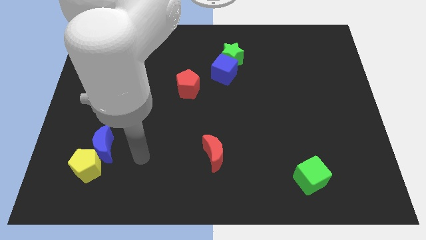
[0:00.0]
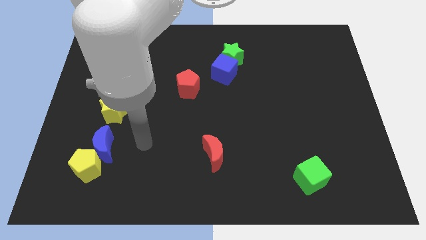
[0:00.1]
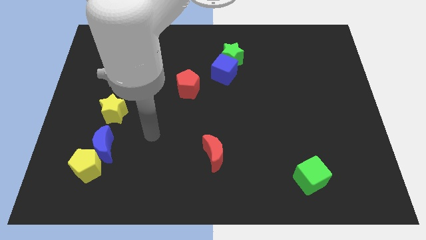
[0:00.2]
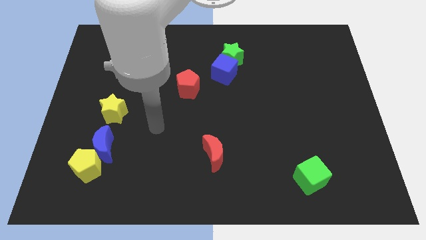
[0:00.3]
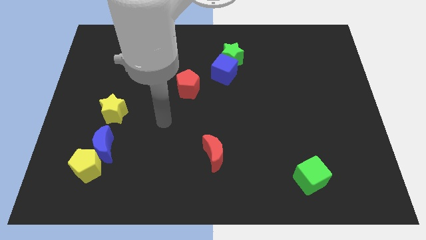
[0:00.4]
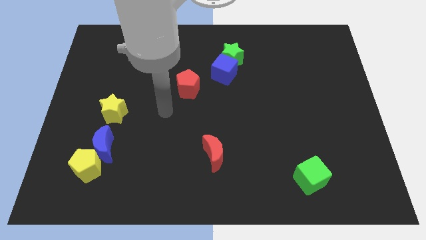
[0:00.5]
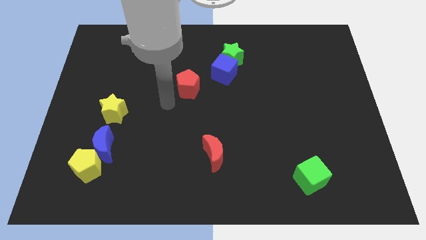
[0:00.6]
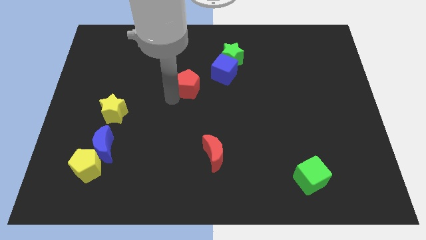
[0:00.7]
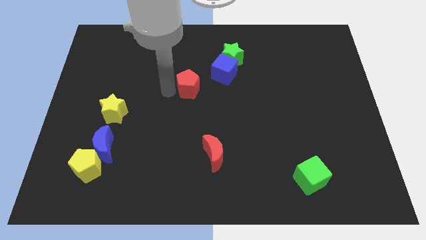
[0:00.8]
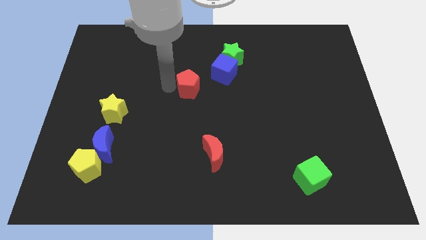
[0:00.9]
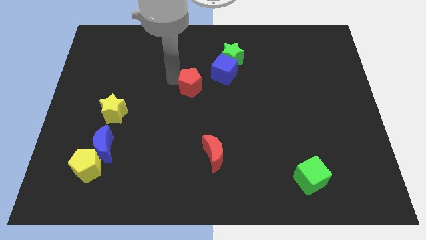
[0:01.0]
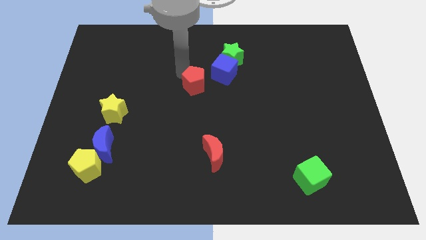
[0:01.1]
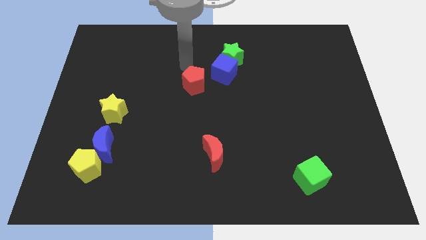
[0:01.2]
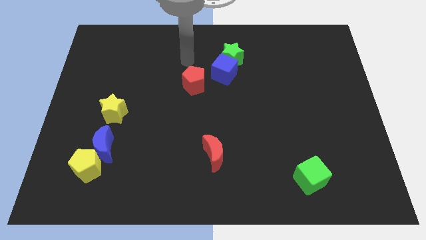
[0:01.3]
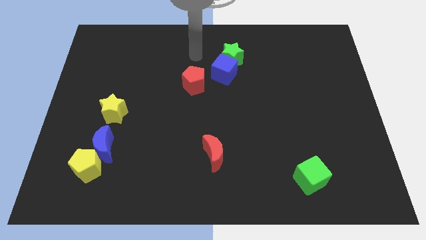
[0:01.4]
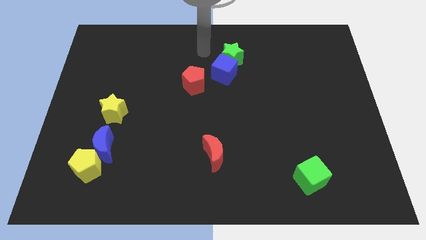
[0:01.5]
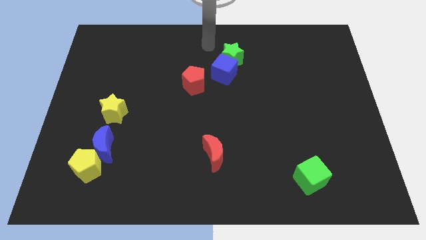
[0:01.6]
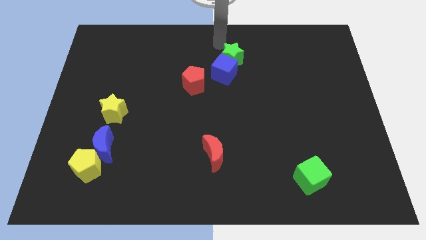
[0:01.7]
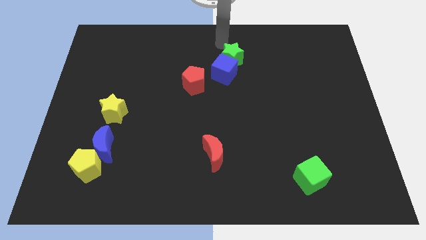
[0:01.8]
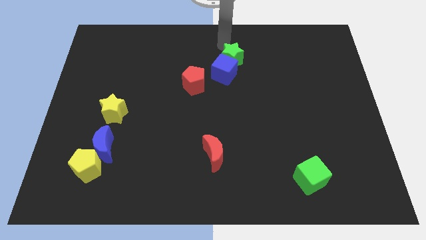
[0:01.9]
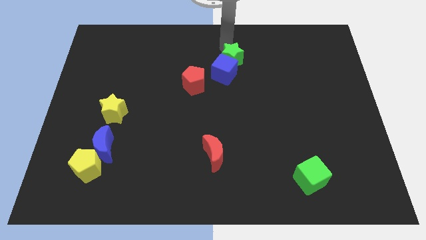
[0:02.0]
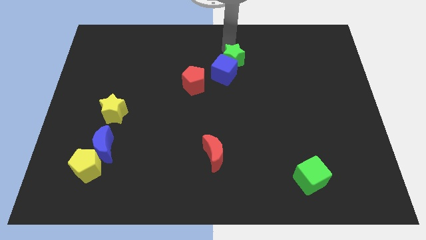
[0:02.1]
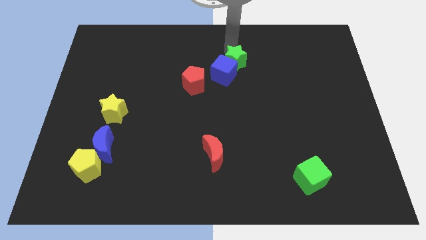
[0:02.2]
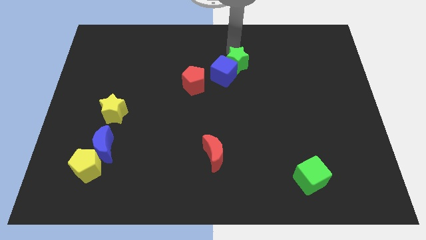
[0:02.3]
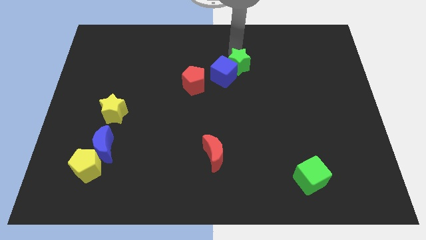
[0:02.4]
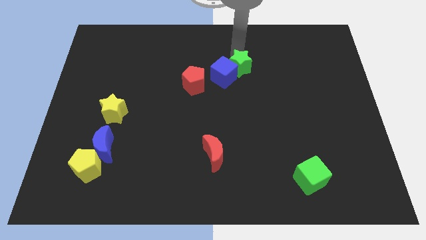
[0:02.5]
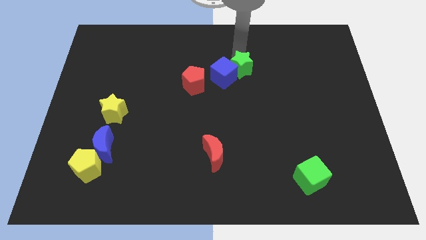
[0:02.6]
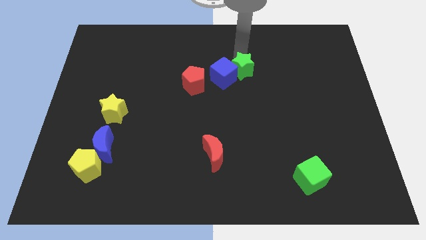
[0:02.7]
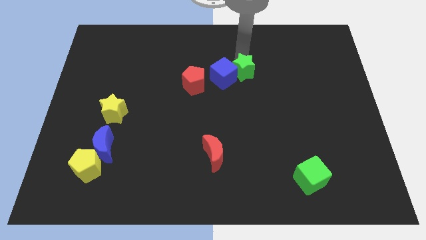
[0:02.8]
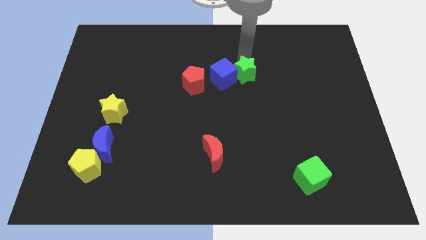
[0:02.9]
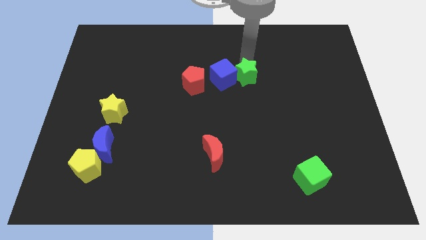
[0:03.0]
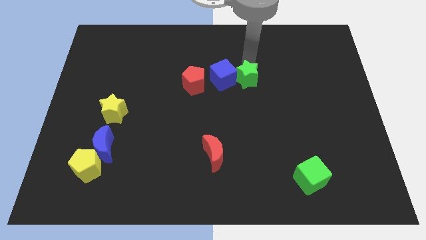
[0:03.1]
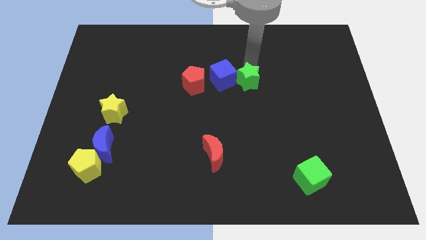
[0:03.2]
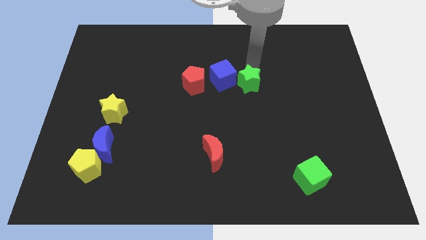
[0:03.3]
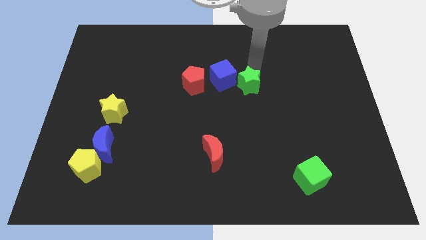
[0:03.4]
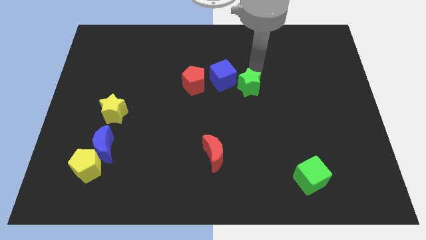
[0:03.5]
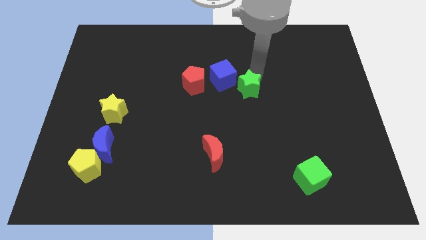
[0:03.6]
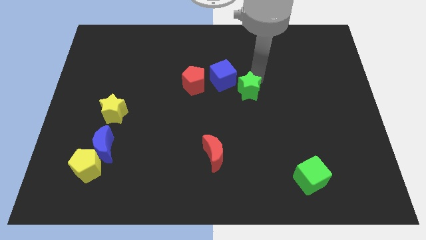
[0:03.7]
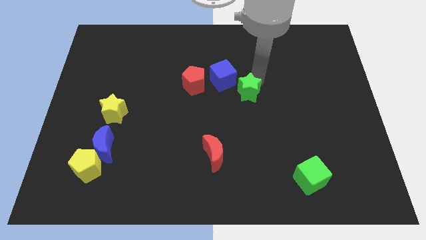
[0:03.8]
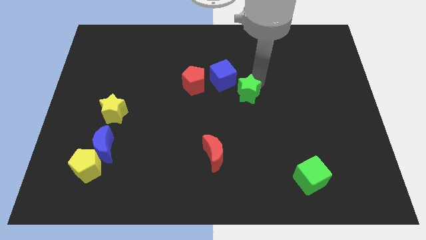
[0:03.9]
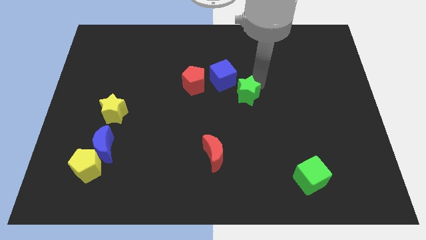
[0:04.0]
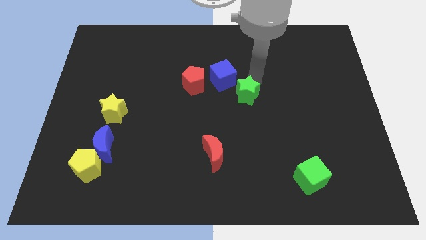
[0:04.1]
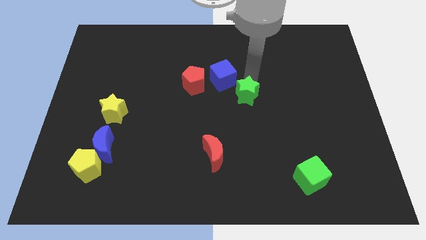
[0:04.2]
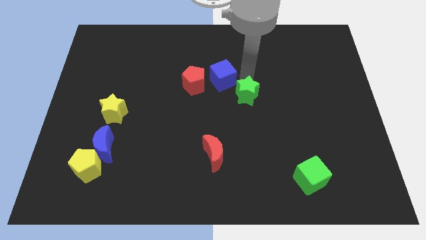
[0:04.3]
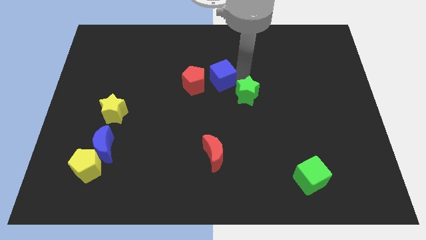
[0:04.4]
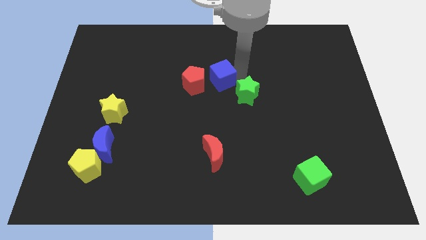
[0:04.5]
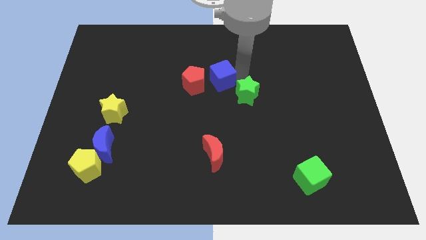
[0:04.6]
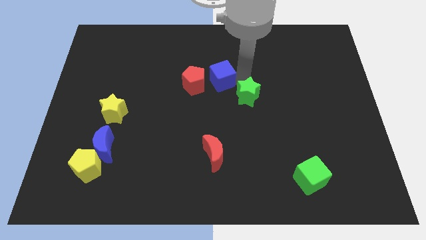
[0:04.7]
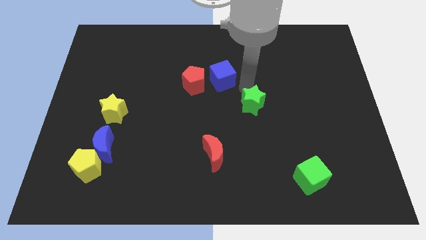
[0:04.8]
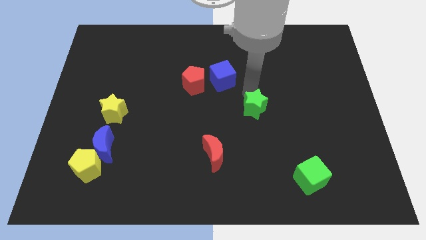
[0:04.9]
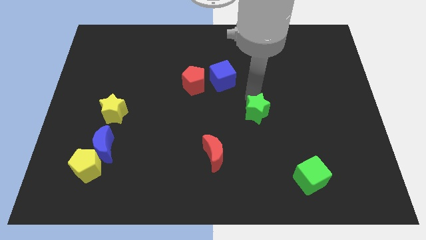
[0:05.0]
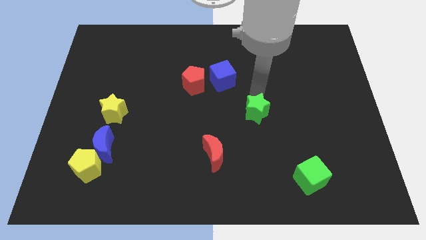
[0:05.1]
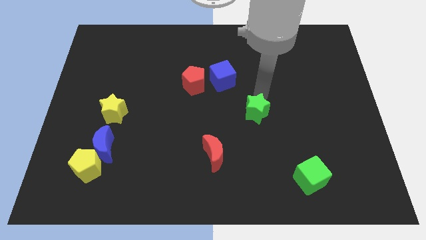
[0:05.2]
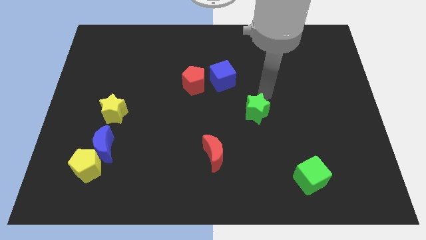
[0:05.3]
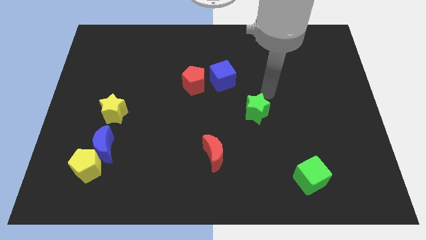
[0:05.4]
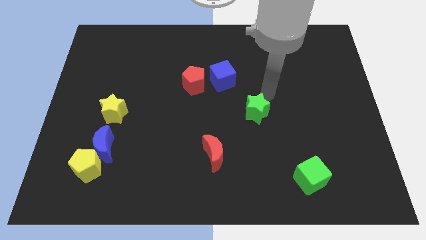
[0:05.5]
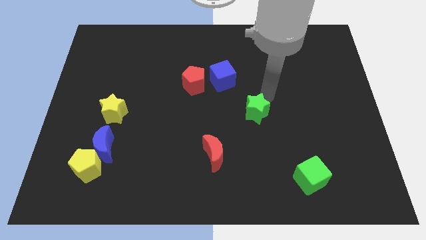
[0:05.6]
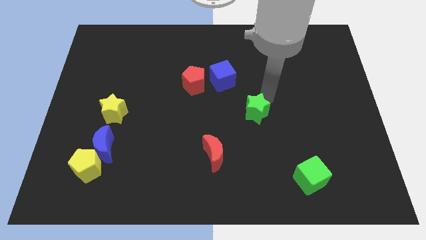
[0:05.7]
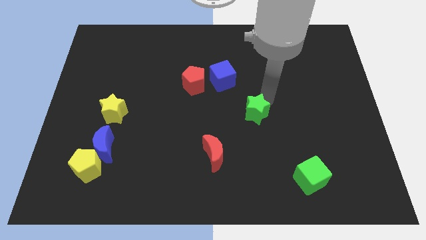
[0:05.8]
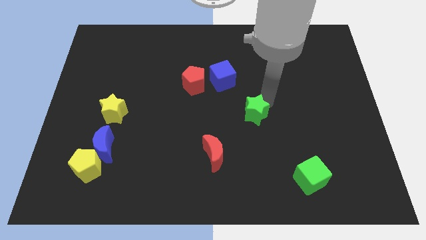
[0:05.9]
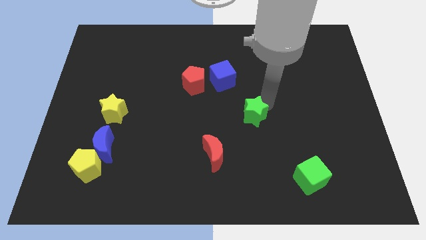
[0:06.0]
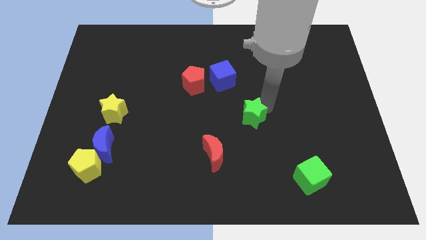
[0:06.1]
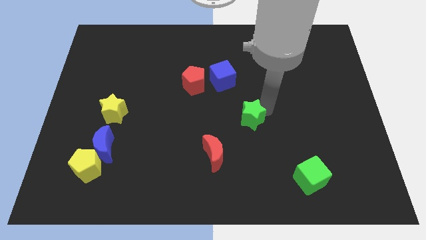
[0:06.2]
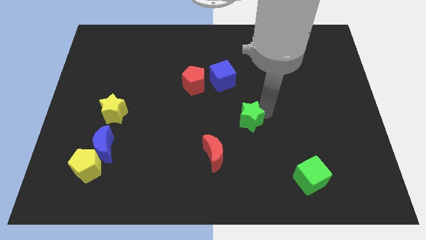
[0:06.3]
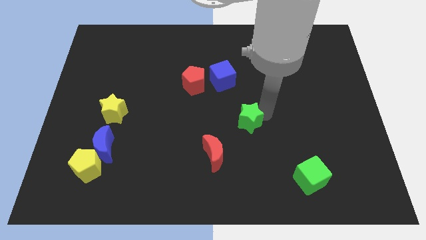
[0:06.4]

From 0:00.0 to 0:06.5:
push the green star downwards

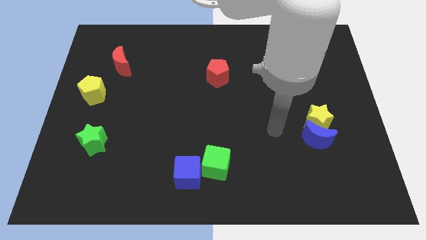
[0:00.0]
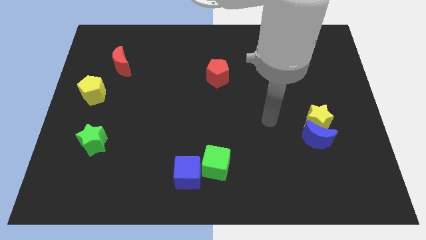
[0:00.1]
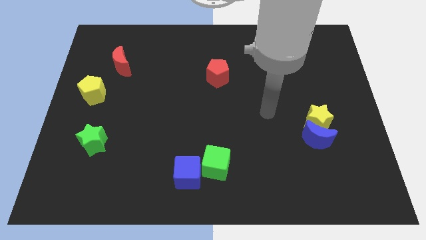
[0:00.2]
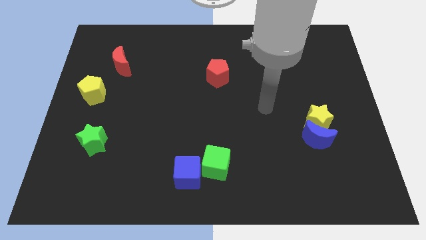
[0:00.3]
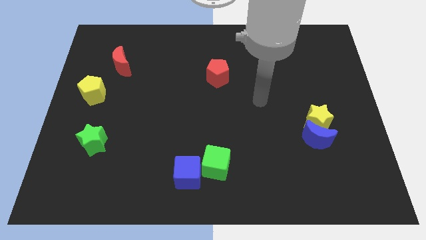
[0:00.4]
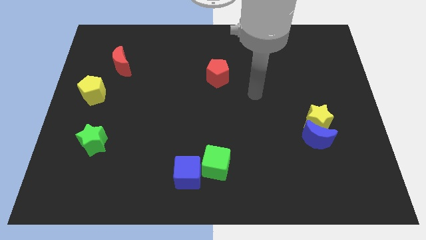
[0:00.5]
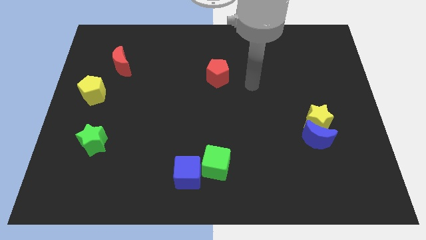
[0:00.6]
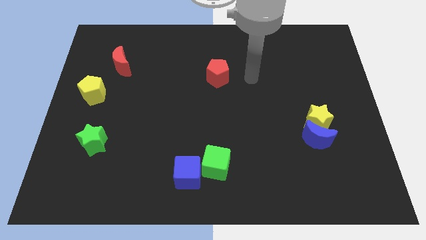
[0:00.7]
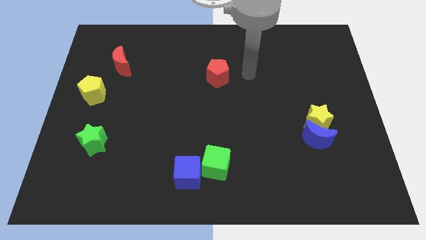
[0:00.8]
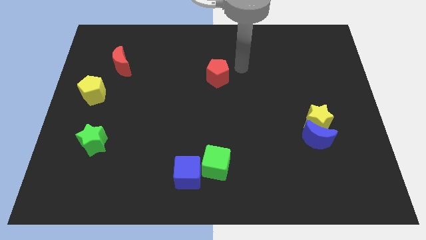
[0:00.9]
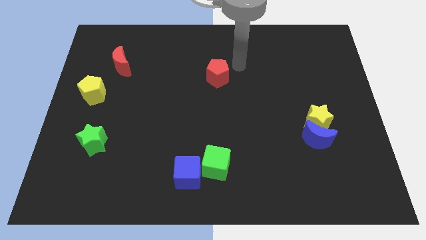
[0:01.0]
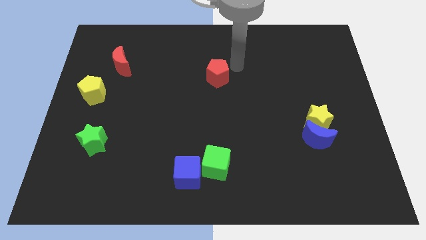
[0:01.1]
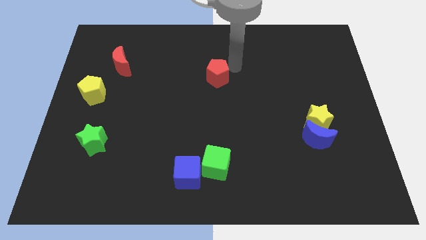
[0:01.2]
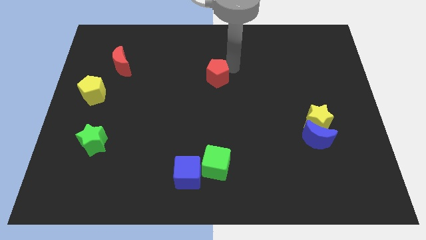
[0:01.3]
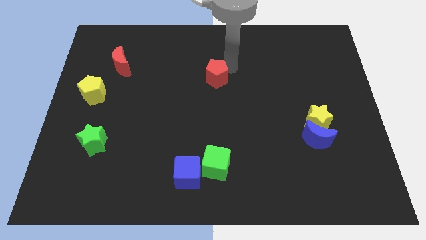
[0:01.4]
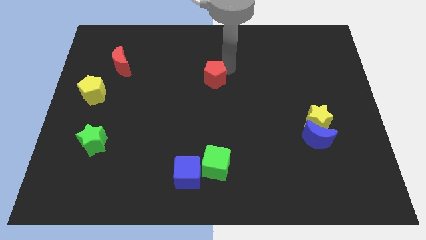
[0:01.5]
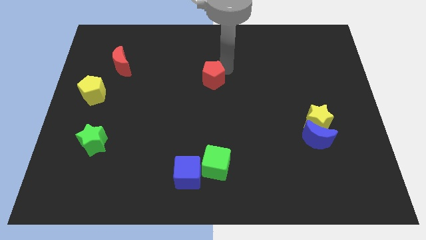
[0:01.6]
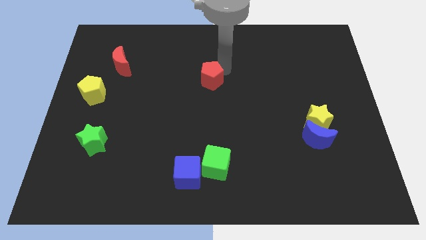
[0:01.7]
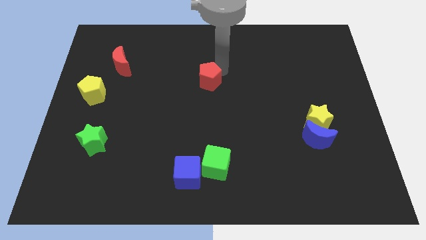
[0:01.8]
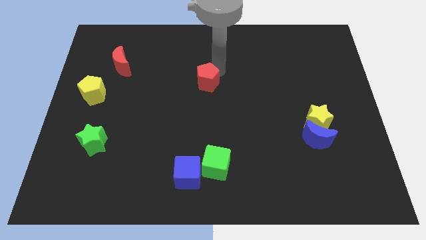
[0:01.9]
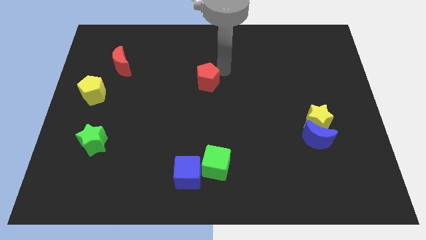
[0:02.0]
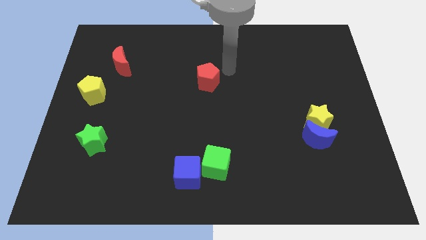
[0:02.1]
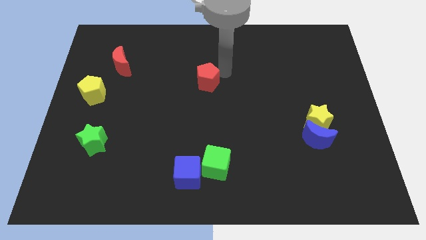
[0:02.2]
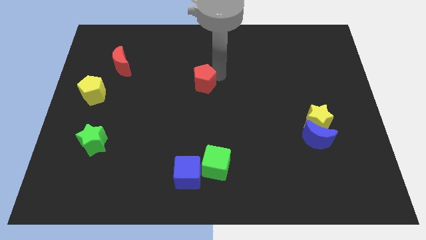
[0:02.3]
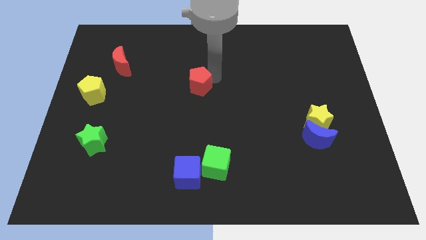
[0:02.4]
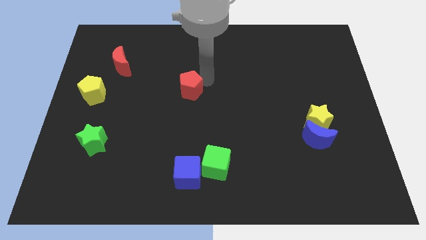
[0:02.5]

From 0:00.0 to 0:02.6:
slightly move the red pentagon downwards and to the left
